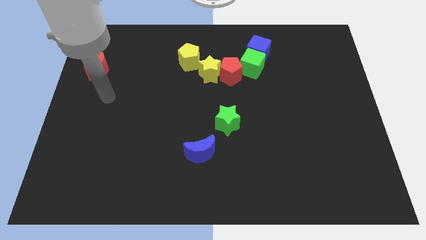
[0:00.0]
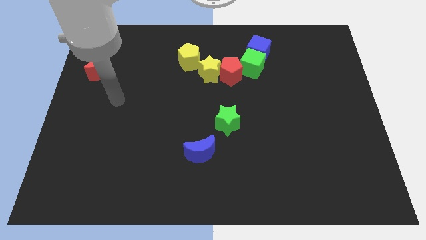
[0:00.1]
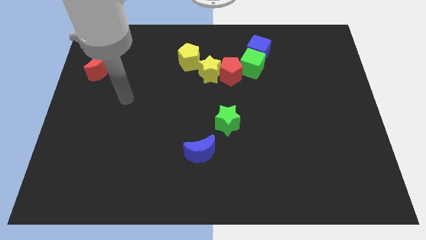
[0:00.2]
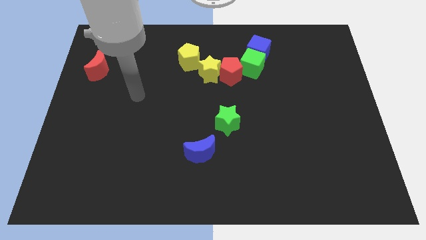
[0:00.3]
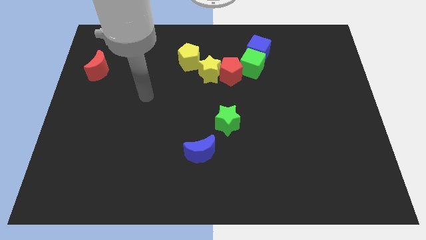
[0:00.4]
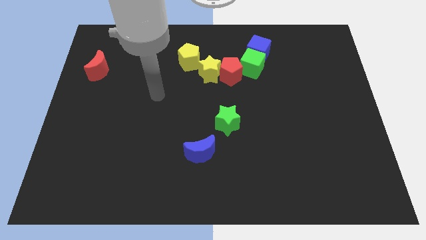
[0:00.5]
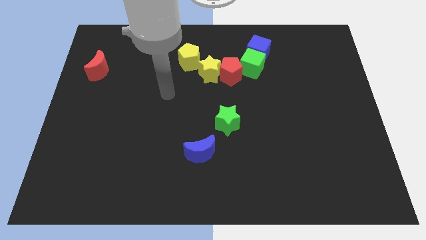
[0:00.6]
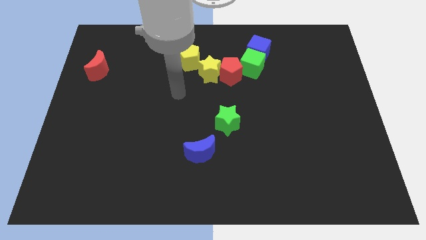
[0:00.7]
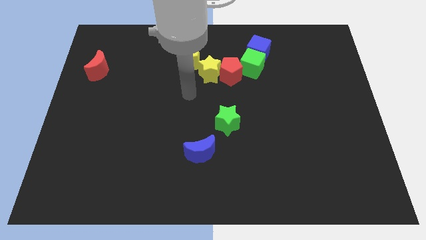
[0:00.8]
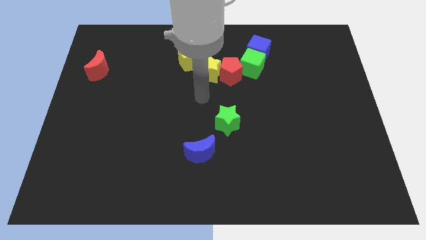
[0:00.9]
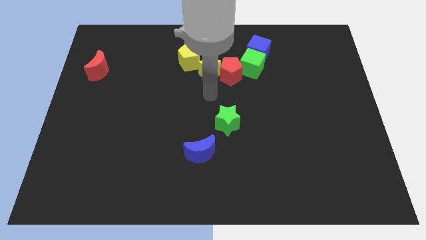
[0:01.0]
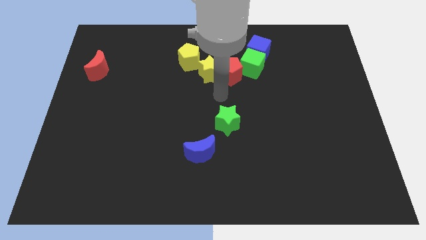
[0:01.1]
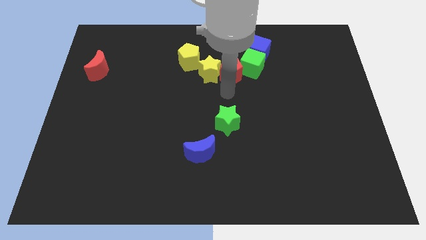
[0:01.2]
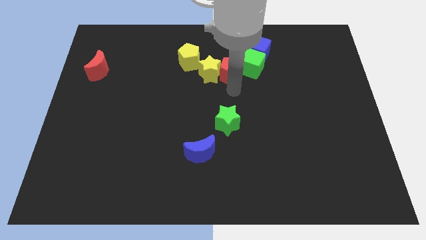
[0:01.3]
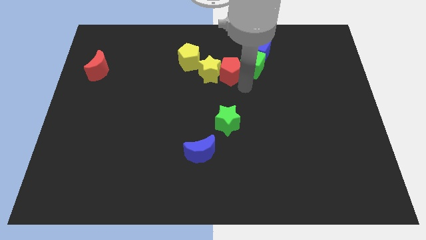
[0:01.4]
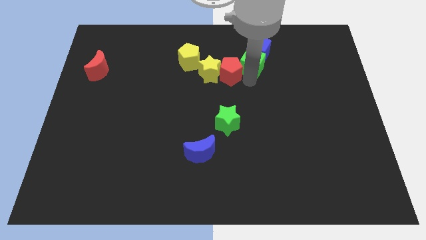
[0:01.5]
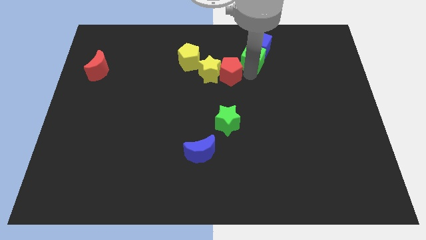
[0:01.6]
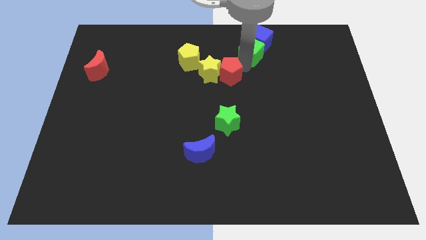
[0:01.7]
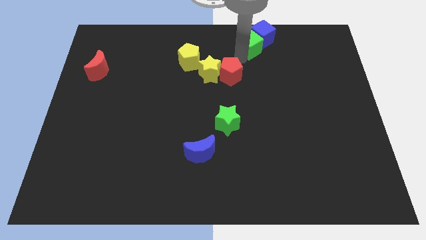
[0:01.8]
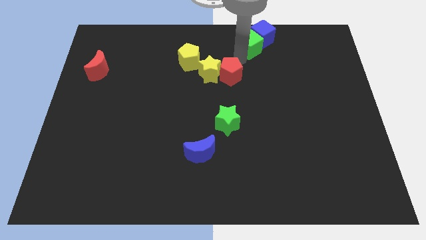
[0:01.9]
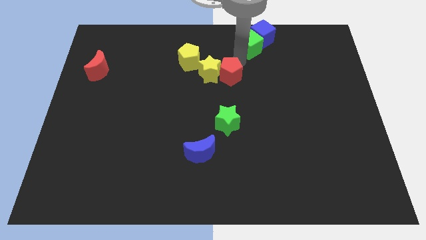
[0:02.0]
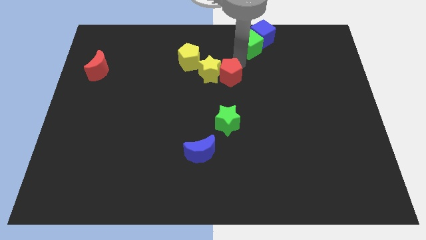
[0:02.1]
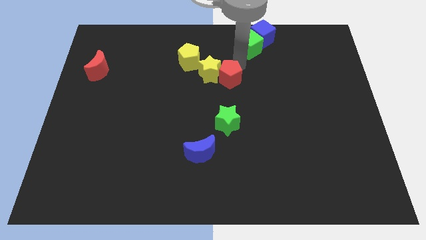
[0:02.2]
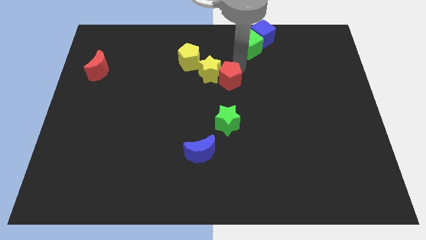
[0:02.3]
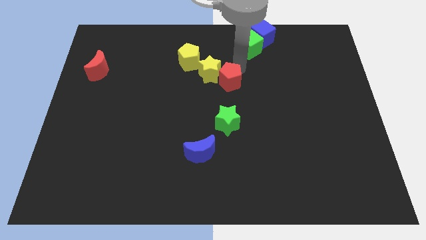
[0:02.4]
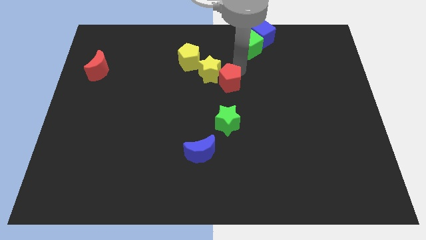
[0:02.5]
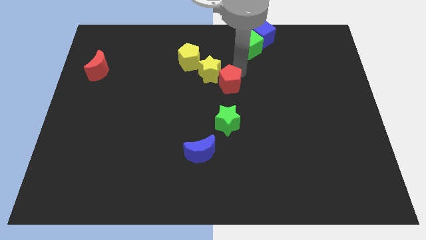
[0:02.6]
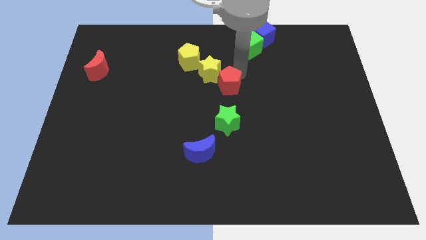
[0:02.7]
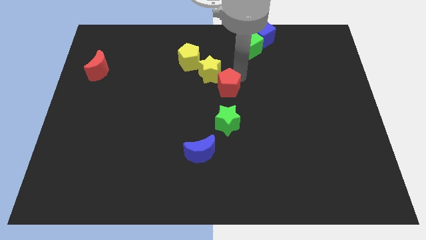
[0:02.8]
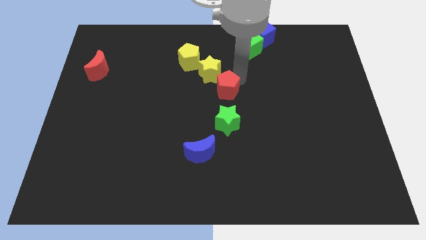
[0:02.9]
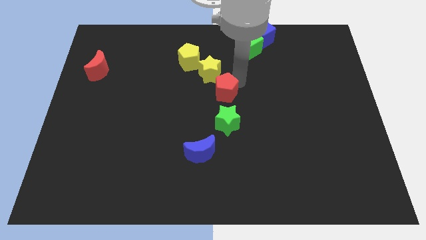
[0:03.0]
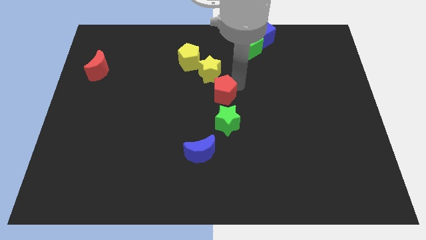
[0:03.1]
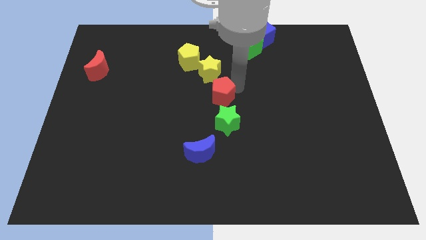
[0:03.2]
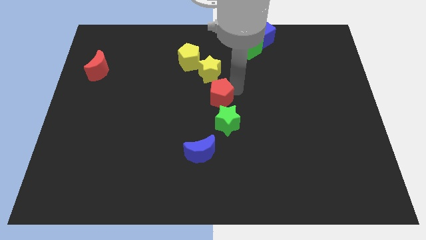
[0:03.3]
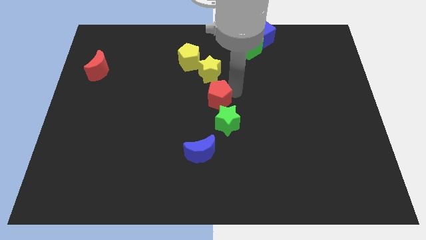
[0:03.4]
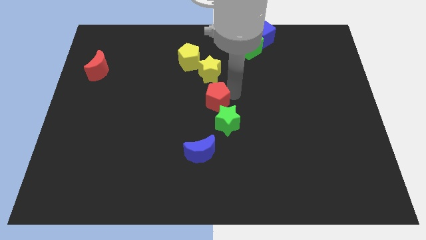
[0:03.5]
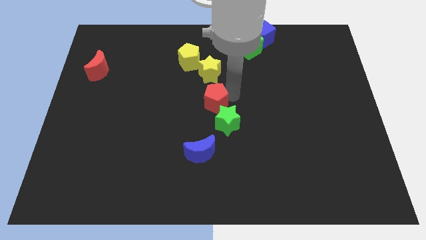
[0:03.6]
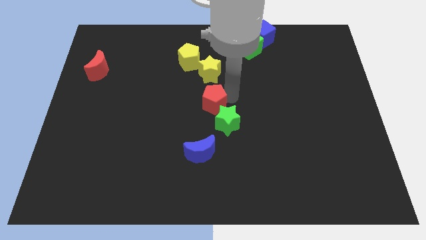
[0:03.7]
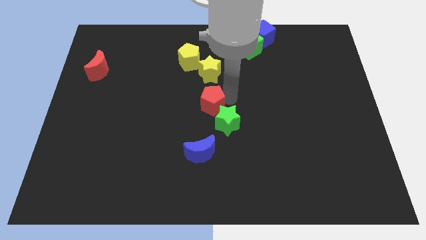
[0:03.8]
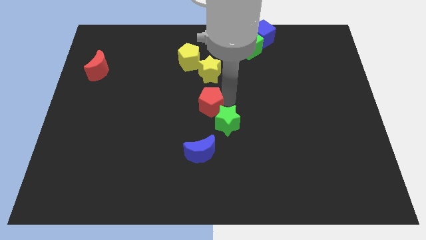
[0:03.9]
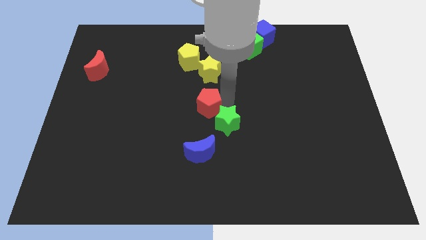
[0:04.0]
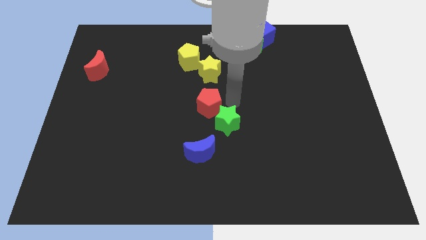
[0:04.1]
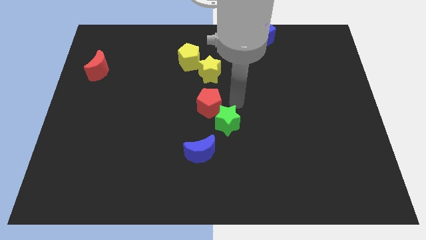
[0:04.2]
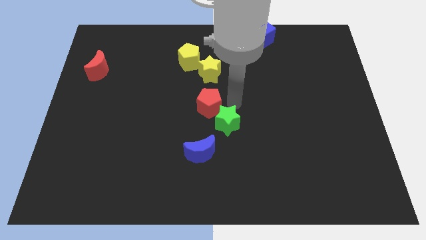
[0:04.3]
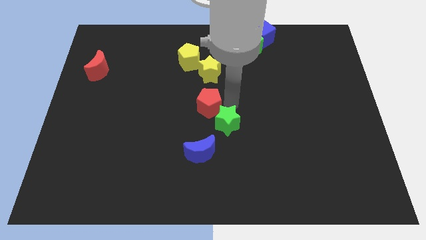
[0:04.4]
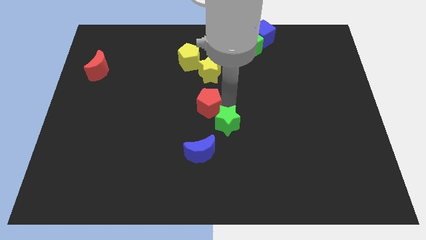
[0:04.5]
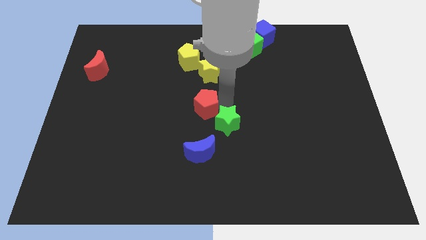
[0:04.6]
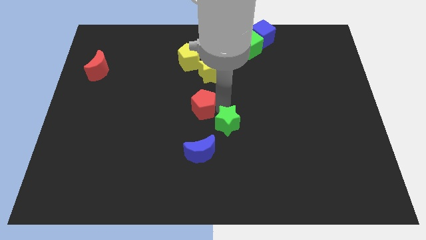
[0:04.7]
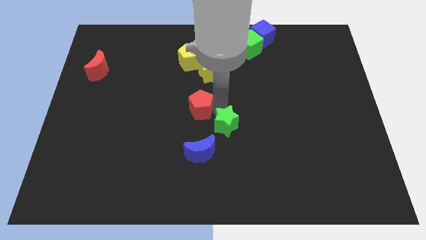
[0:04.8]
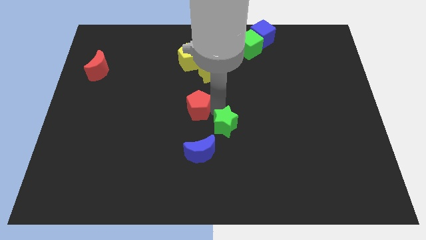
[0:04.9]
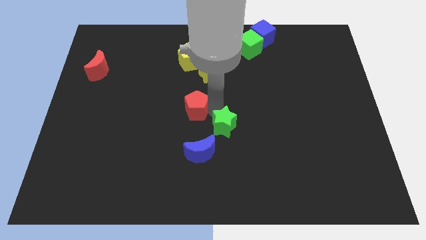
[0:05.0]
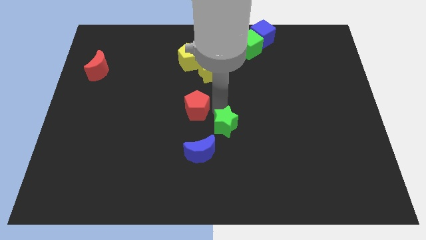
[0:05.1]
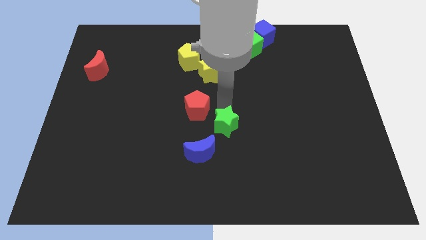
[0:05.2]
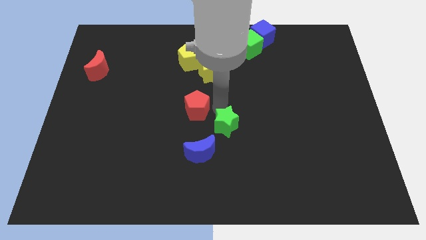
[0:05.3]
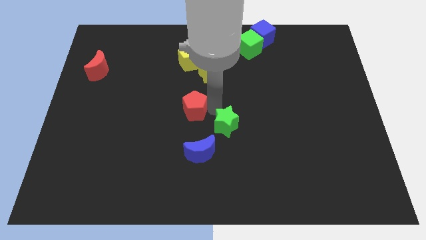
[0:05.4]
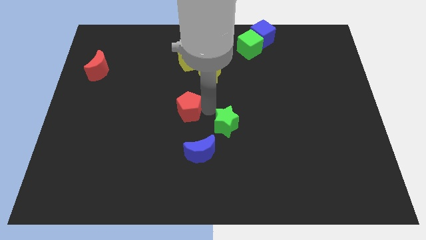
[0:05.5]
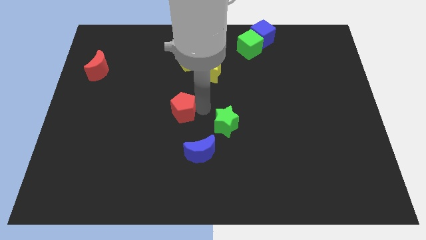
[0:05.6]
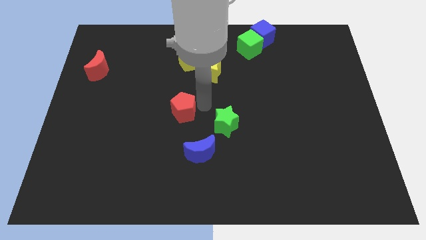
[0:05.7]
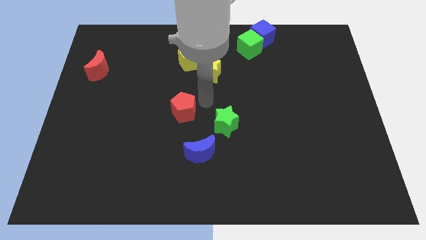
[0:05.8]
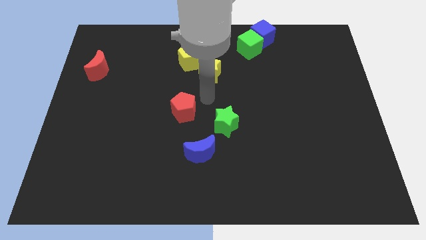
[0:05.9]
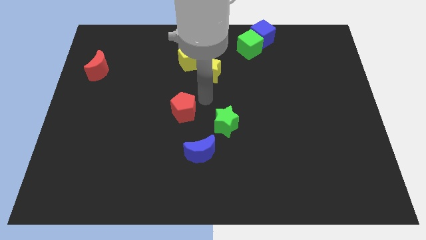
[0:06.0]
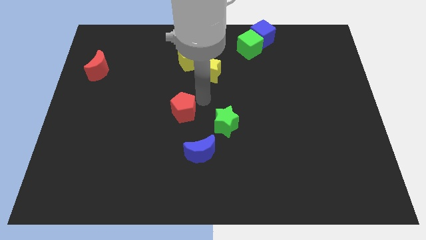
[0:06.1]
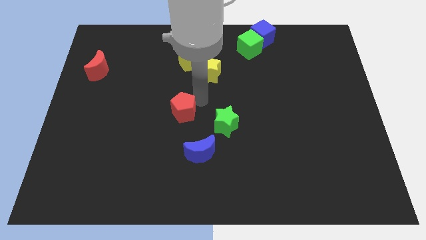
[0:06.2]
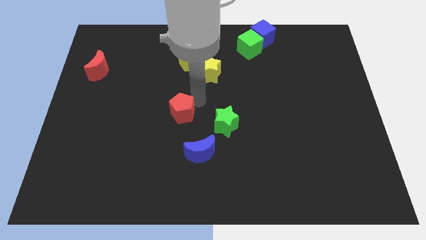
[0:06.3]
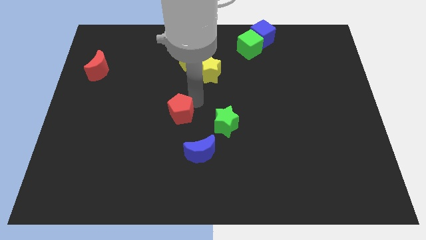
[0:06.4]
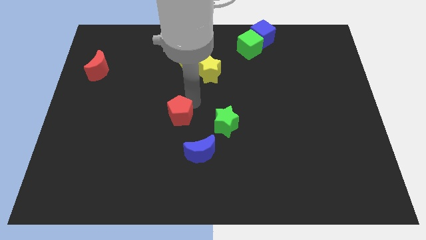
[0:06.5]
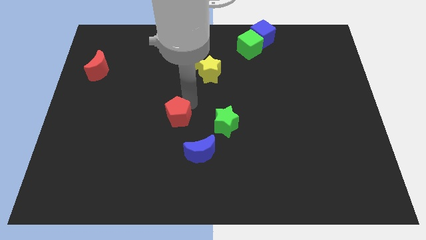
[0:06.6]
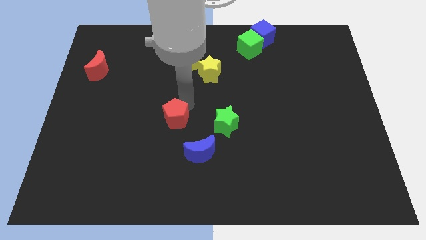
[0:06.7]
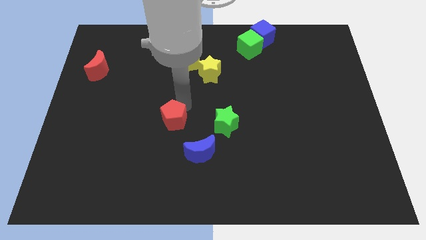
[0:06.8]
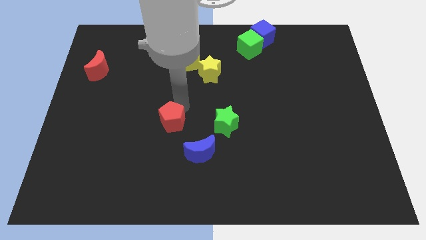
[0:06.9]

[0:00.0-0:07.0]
push the red pentagon down and left

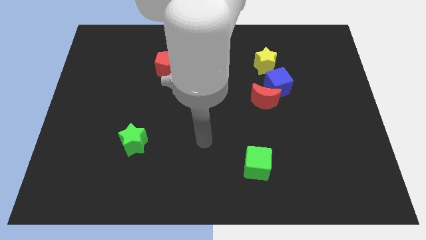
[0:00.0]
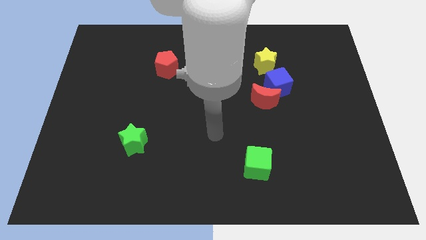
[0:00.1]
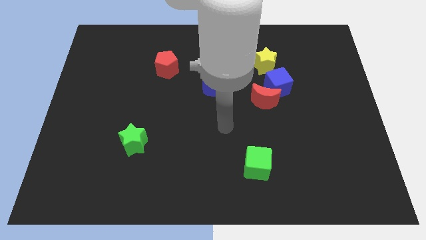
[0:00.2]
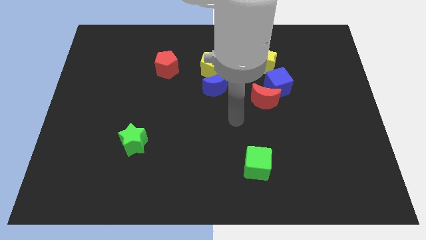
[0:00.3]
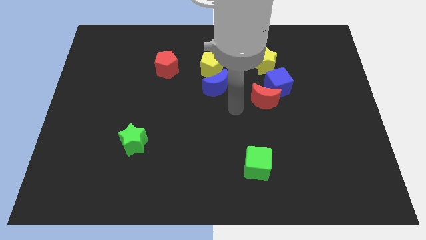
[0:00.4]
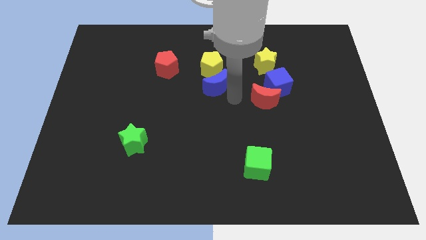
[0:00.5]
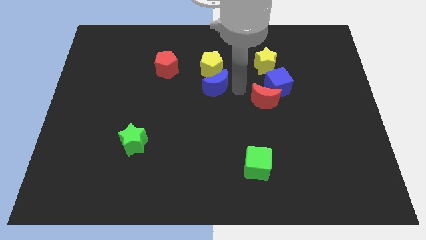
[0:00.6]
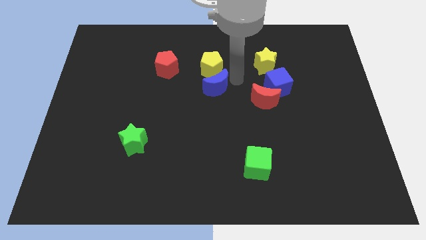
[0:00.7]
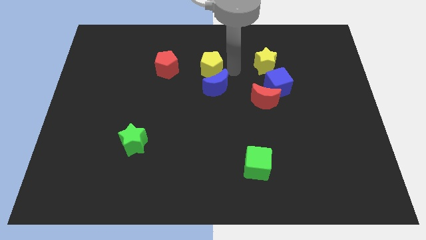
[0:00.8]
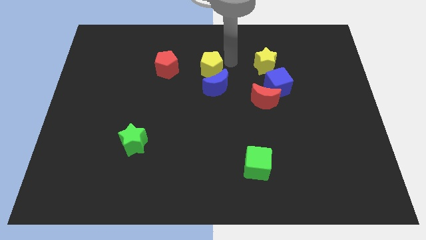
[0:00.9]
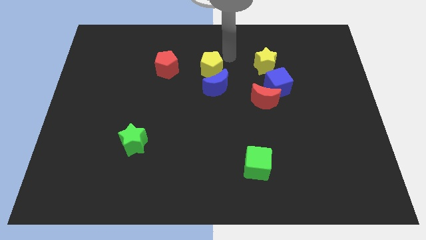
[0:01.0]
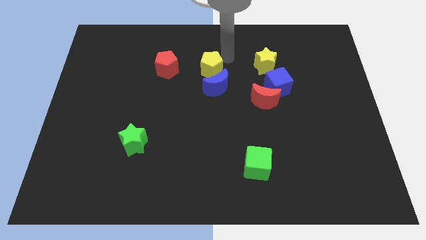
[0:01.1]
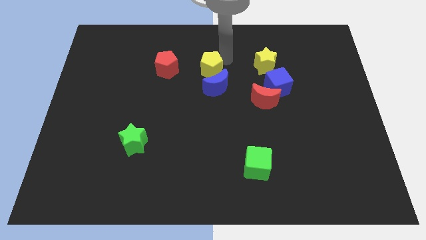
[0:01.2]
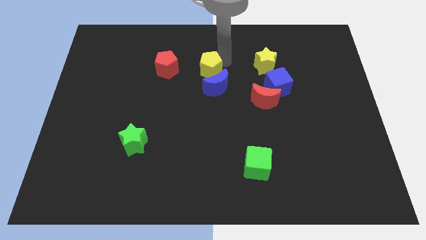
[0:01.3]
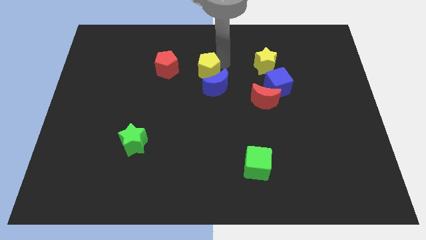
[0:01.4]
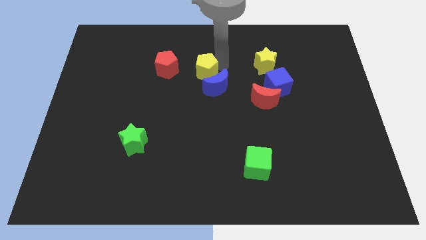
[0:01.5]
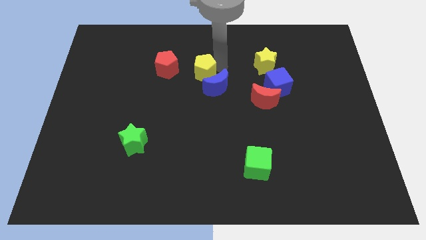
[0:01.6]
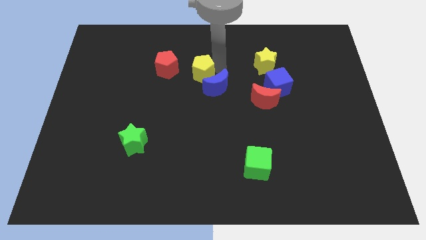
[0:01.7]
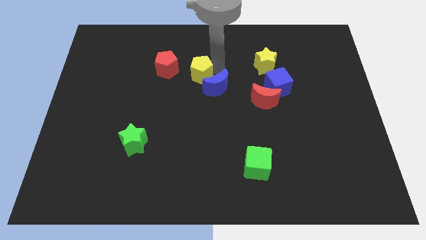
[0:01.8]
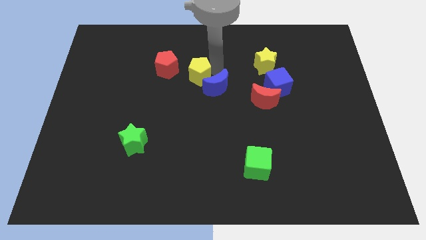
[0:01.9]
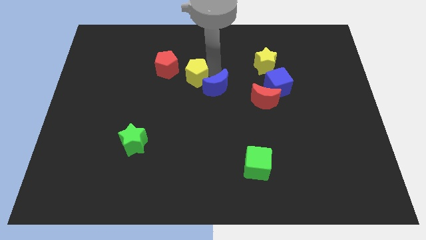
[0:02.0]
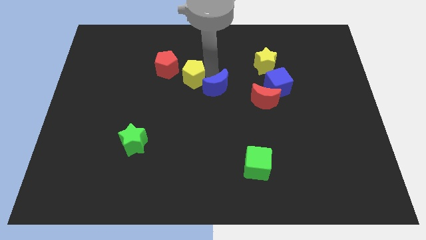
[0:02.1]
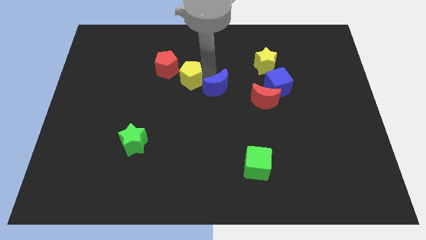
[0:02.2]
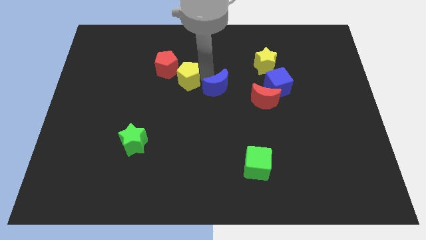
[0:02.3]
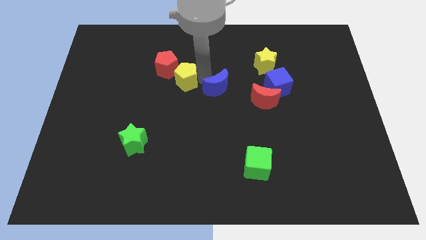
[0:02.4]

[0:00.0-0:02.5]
push the yellow pentagon downwards and to the left diagonally a bit
